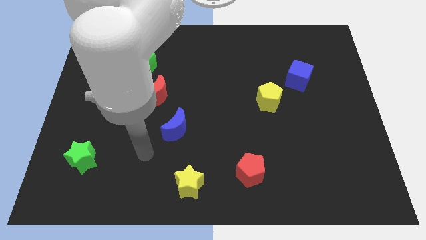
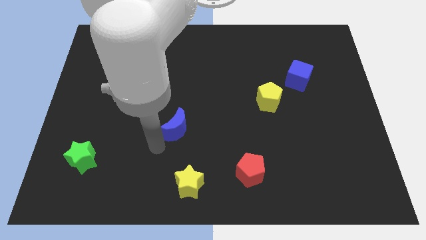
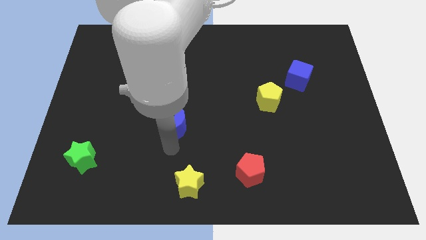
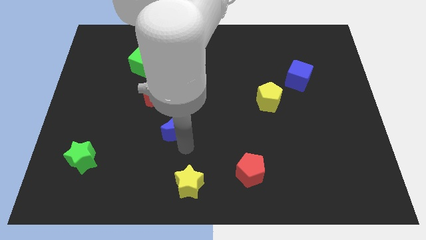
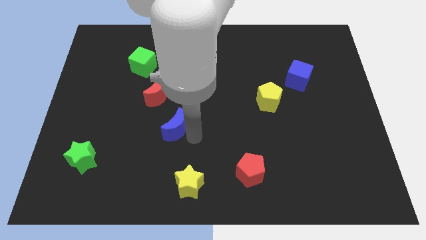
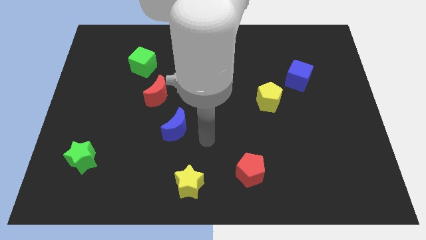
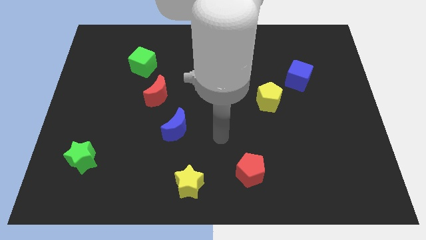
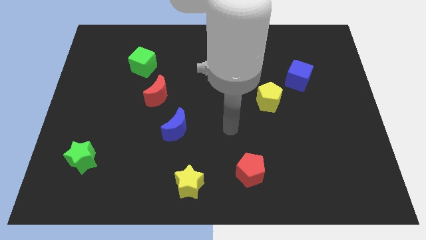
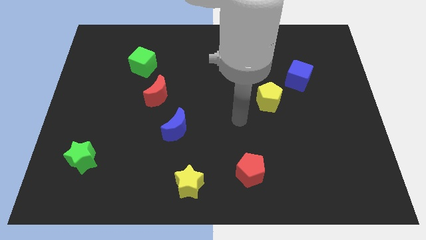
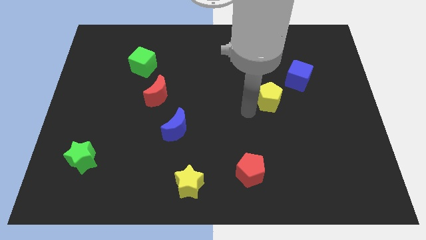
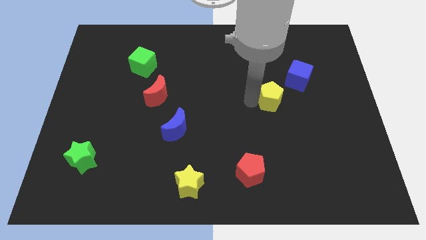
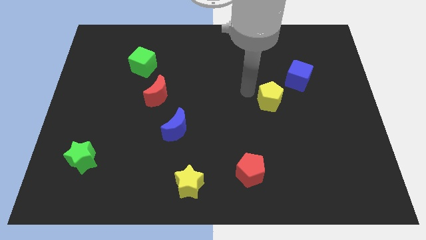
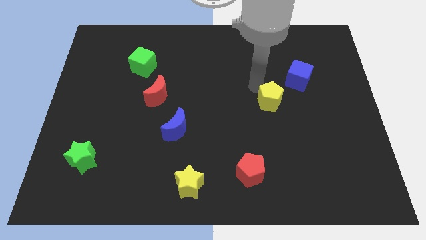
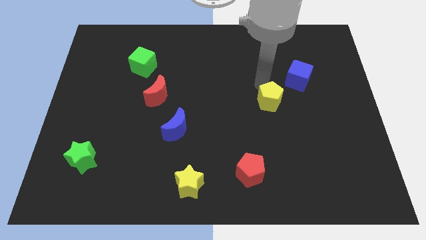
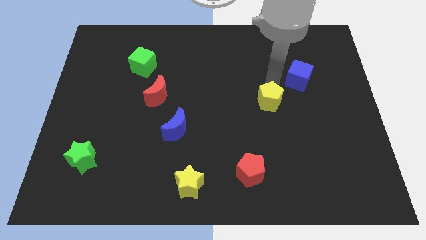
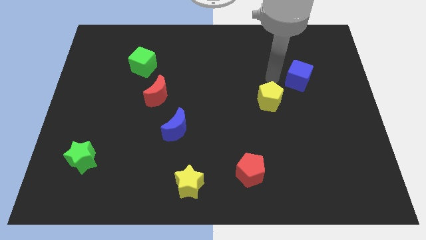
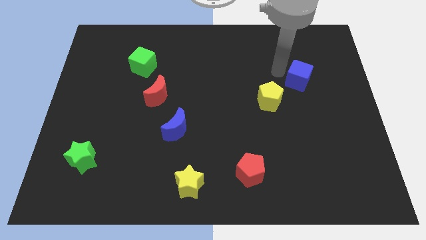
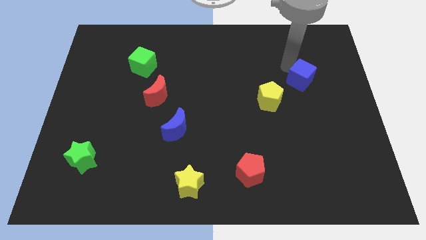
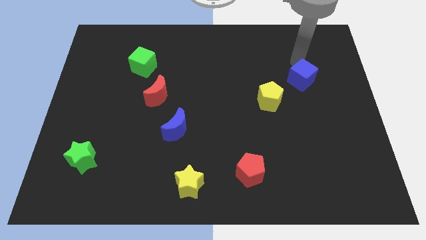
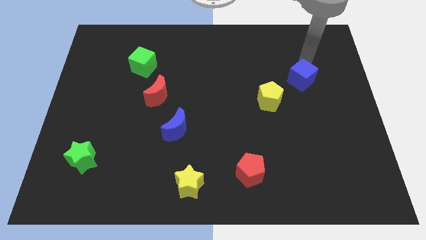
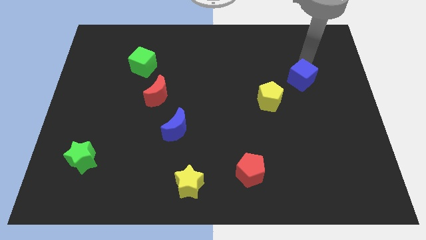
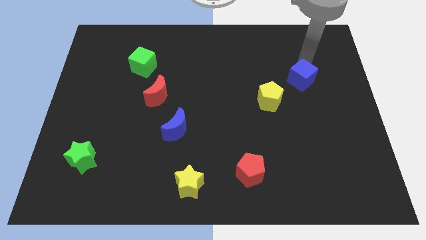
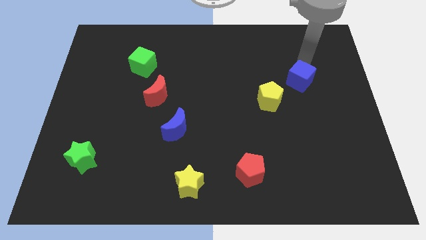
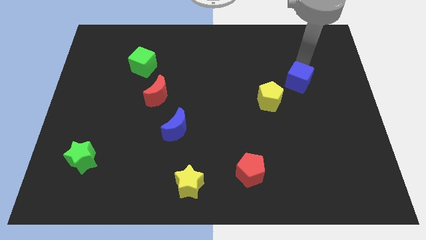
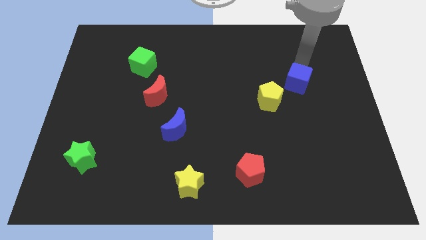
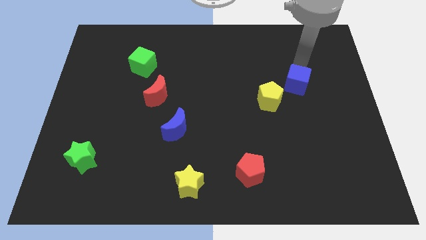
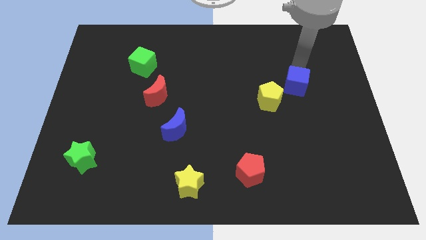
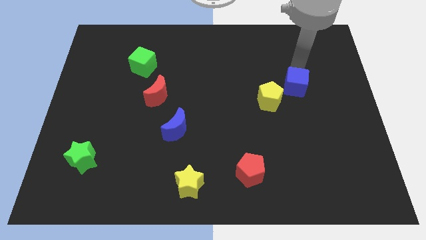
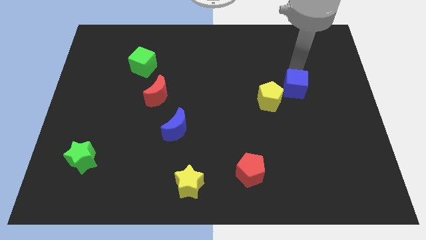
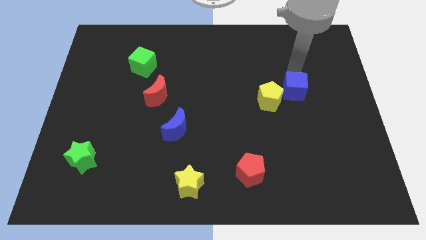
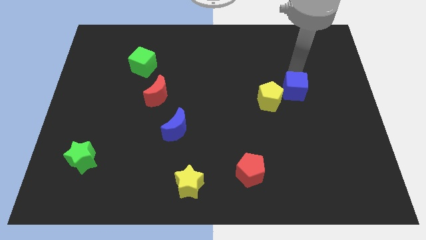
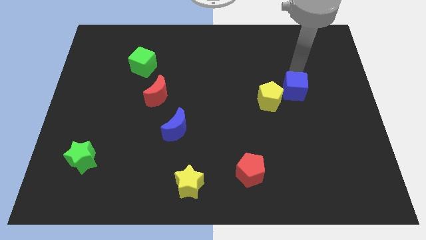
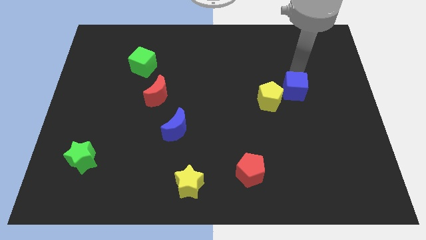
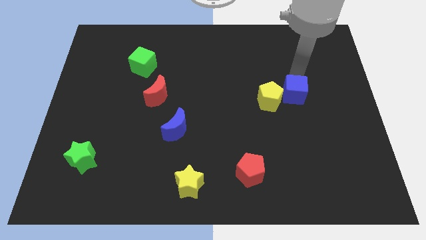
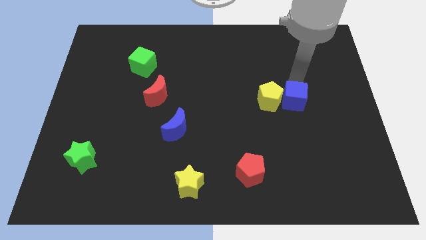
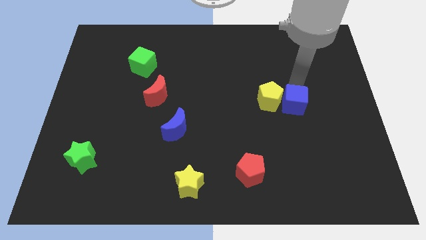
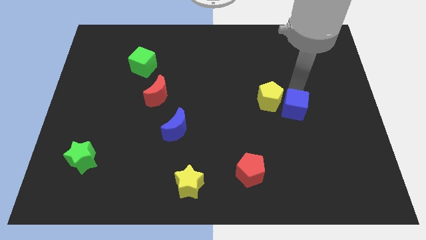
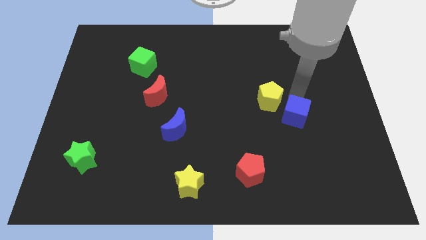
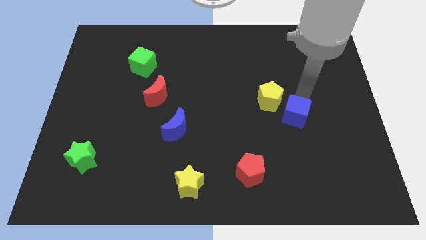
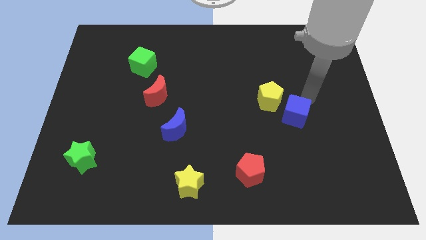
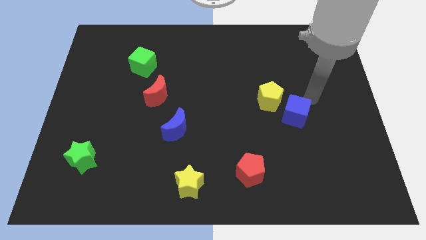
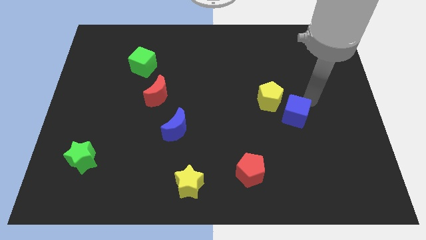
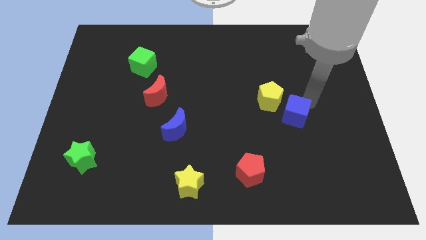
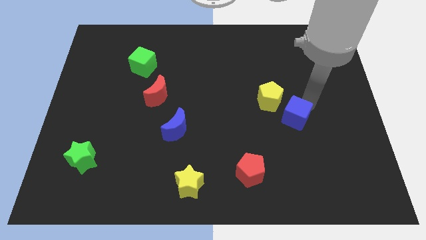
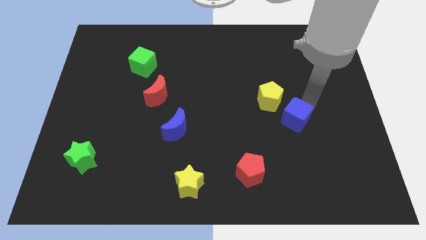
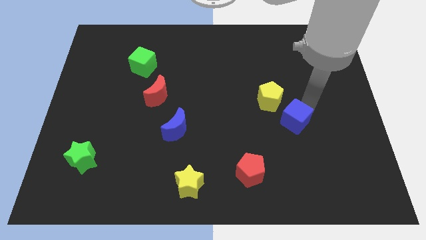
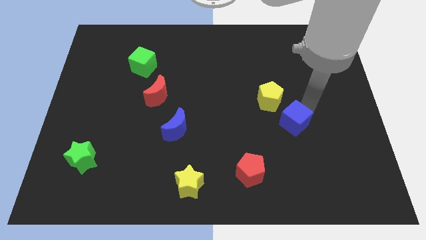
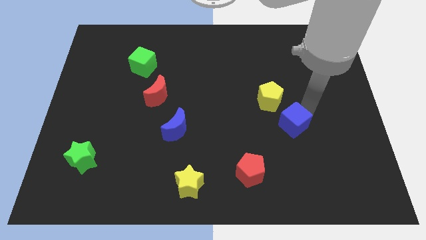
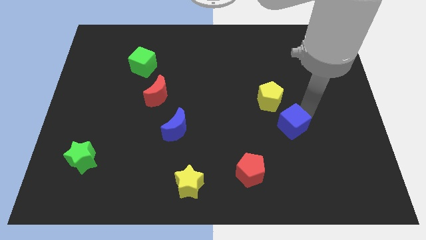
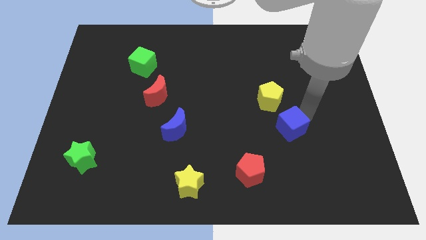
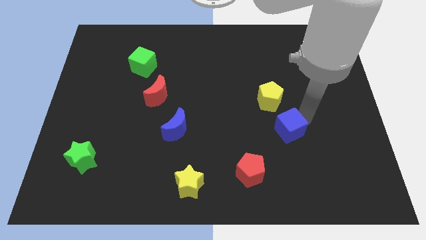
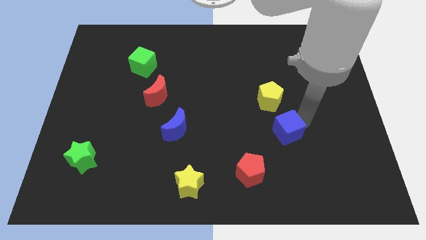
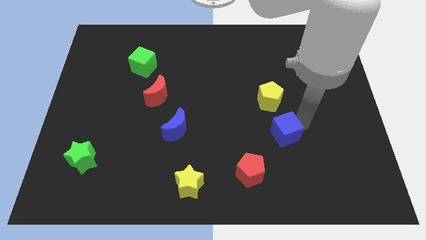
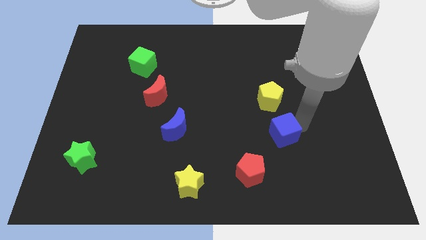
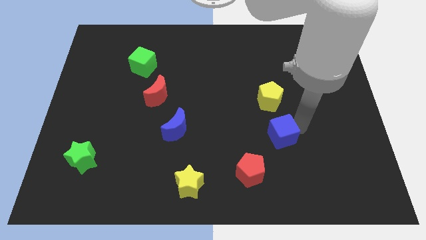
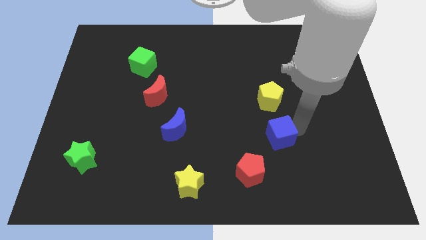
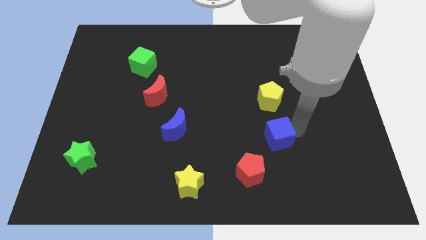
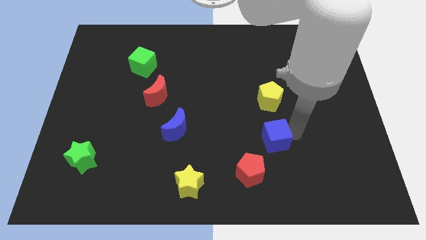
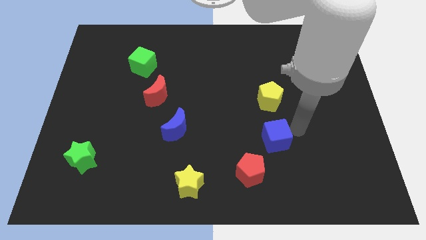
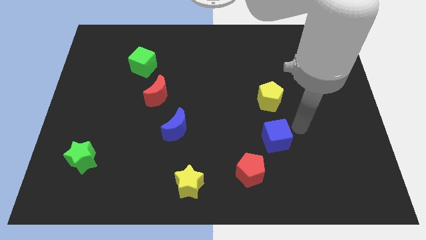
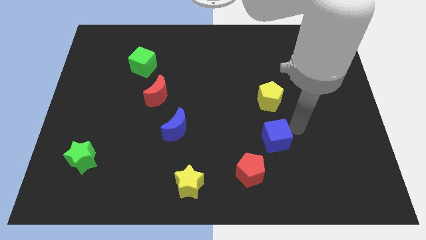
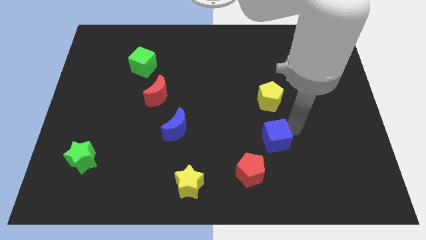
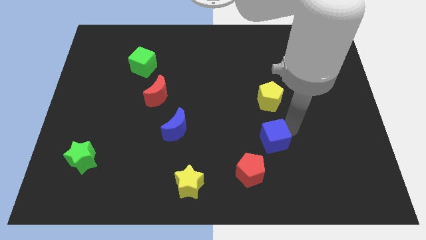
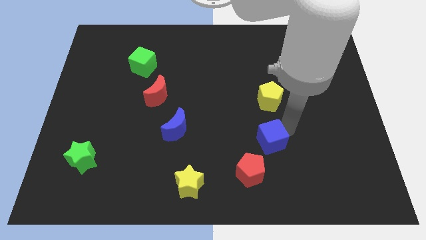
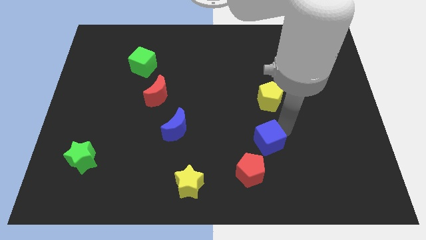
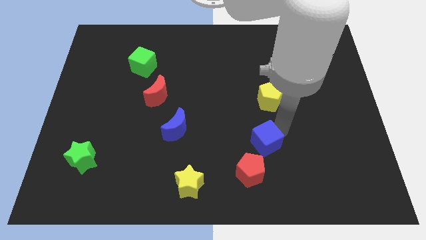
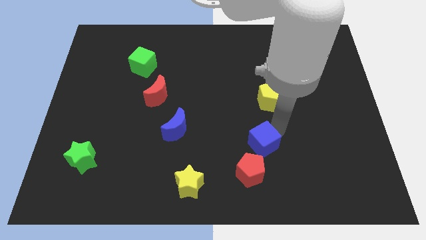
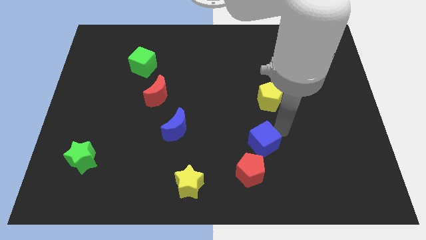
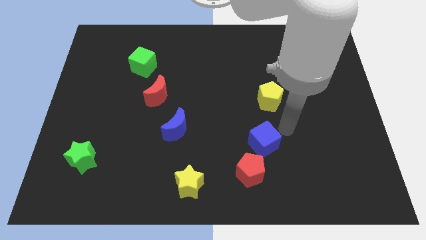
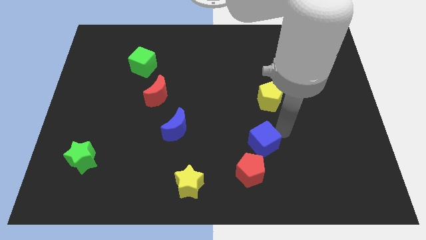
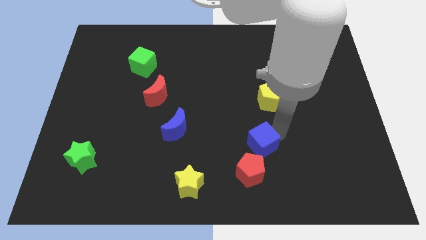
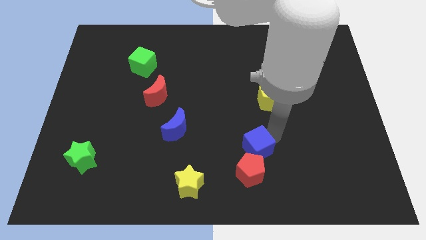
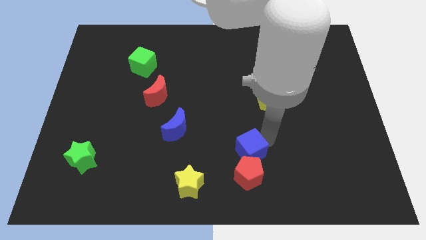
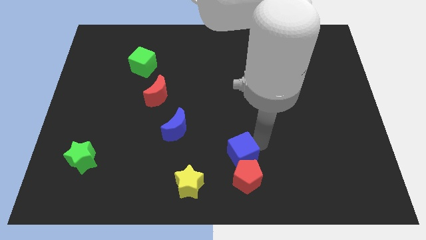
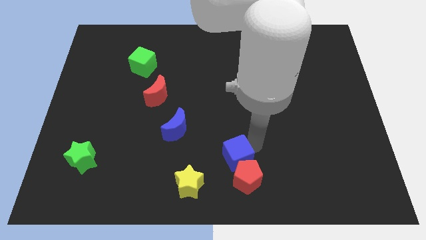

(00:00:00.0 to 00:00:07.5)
move the blue cube to the bottom
